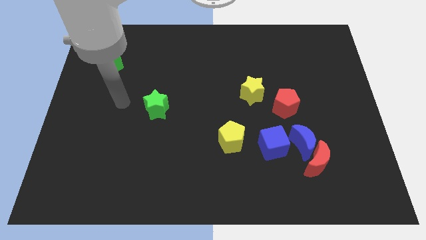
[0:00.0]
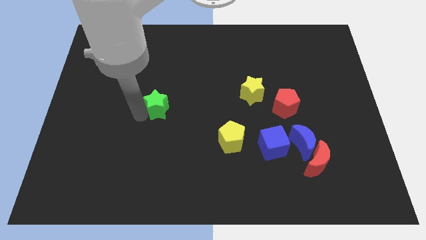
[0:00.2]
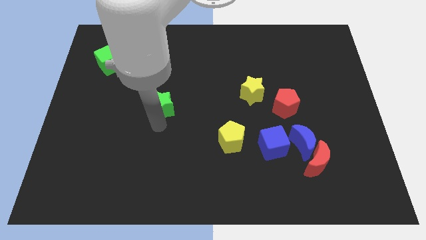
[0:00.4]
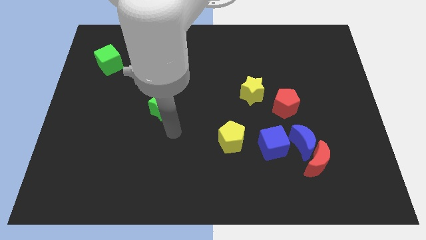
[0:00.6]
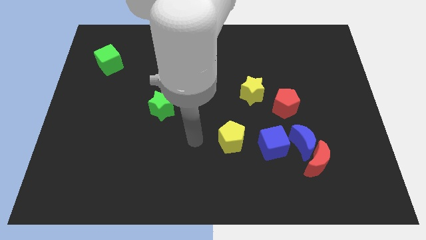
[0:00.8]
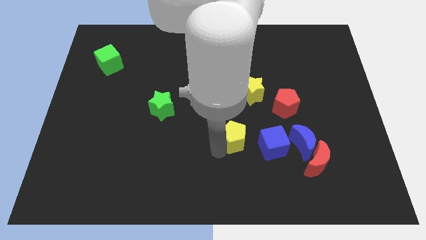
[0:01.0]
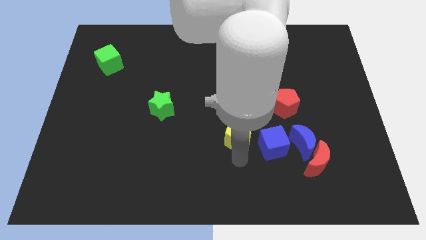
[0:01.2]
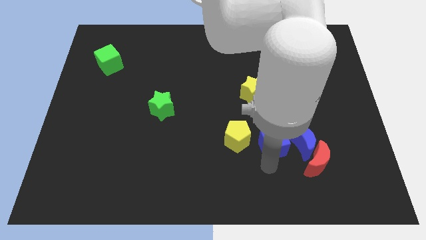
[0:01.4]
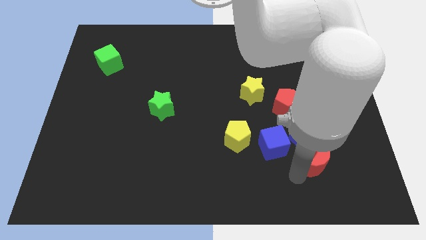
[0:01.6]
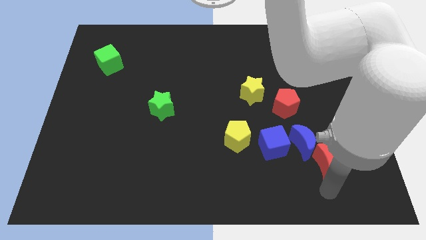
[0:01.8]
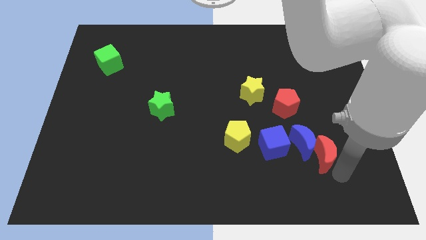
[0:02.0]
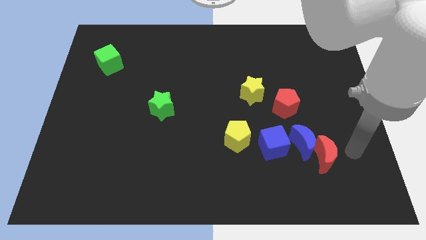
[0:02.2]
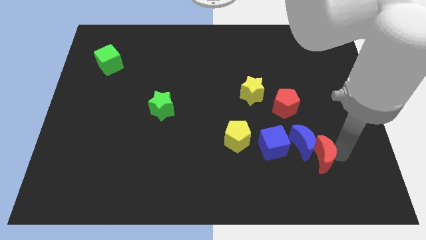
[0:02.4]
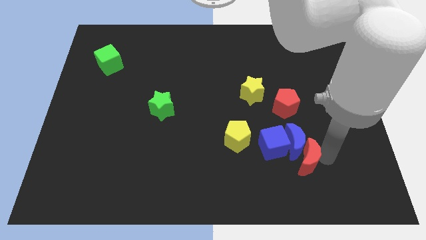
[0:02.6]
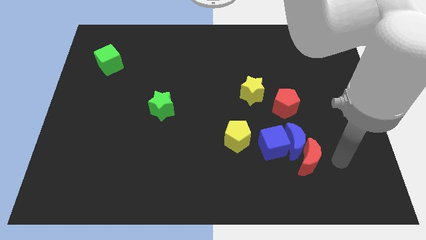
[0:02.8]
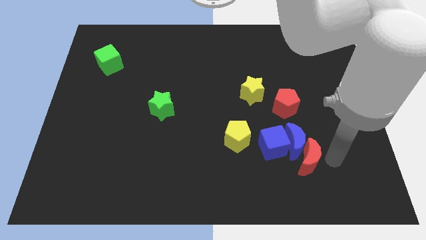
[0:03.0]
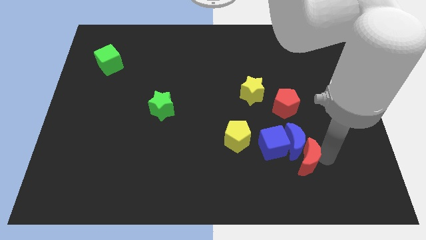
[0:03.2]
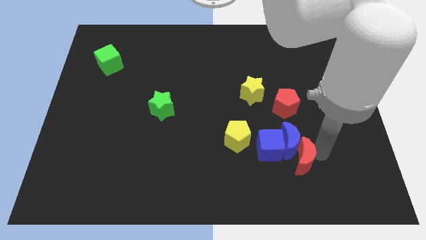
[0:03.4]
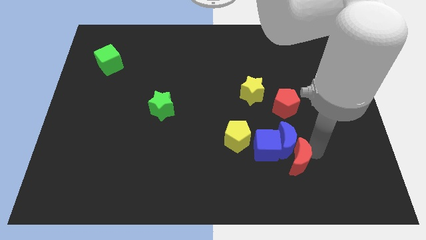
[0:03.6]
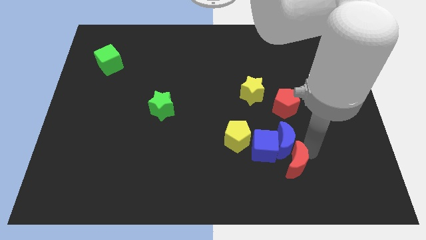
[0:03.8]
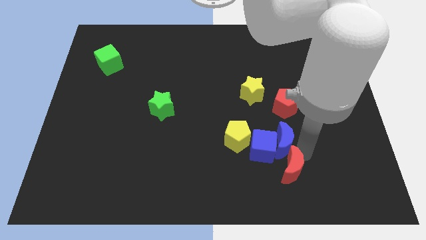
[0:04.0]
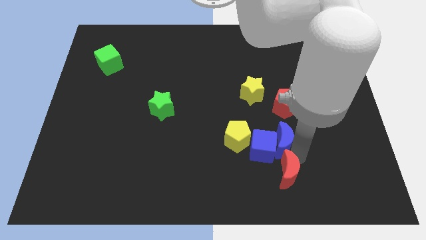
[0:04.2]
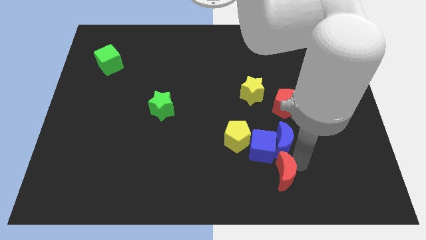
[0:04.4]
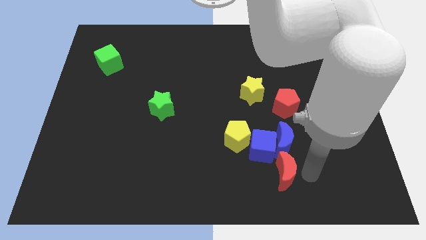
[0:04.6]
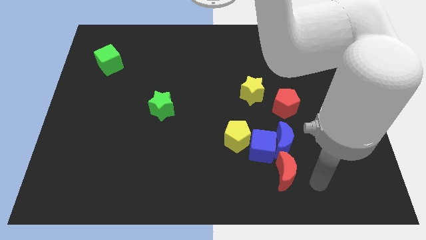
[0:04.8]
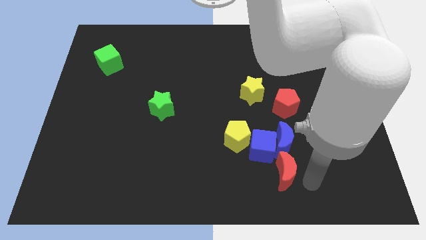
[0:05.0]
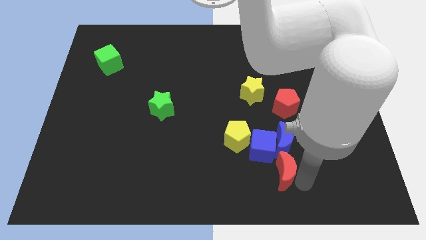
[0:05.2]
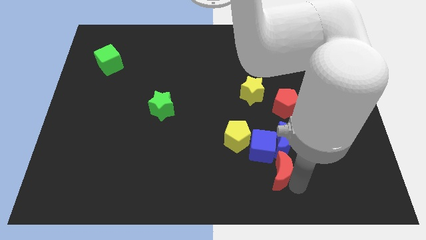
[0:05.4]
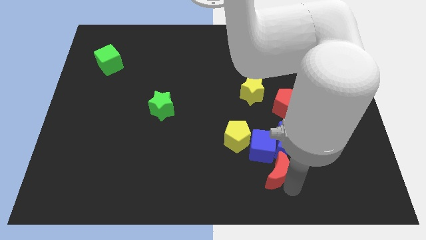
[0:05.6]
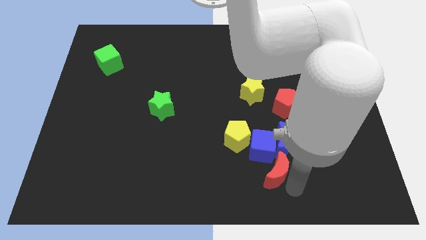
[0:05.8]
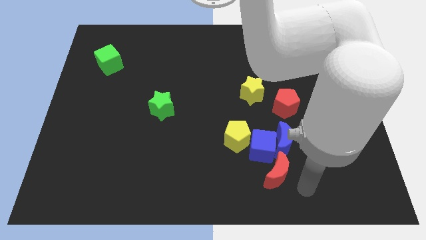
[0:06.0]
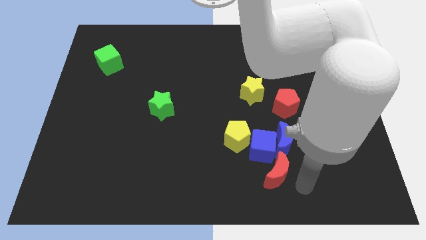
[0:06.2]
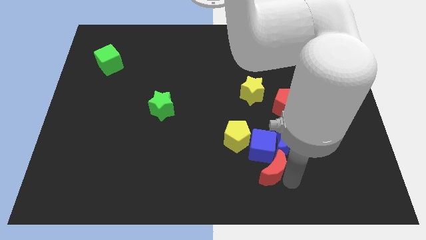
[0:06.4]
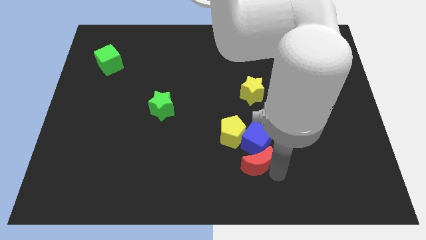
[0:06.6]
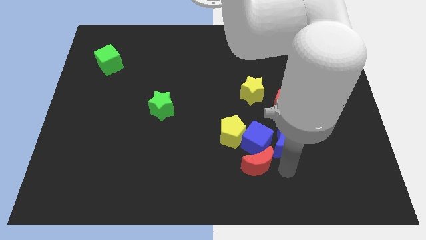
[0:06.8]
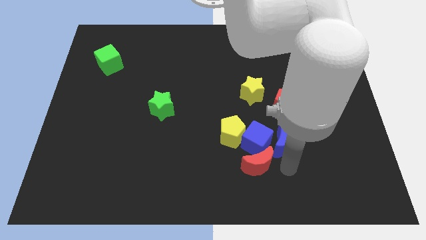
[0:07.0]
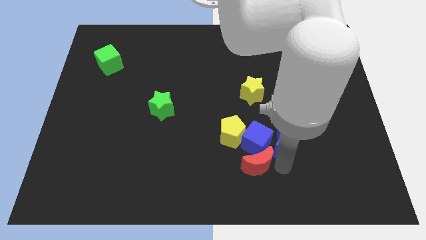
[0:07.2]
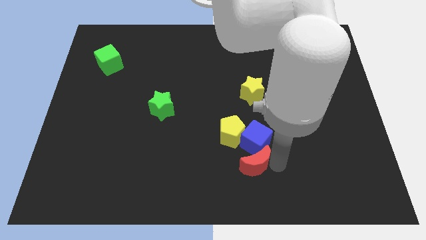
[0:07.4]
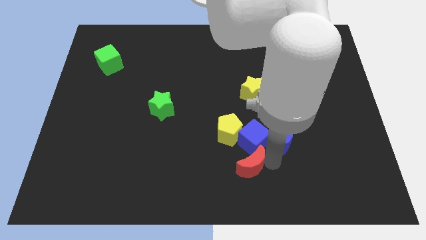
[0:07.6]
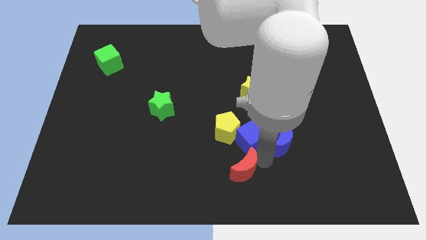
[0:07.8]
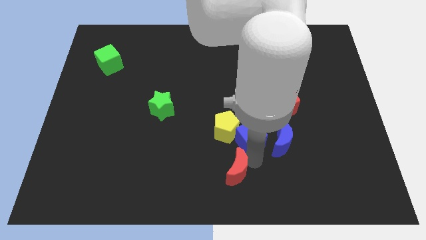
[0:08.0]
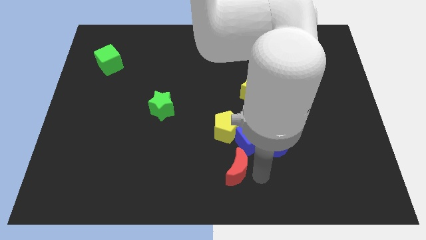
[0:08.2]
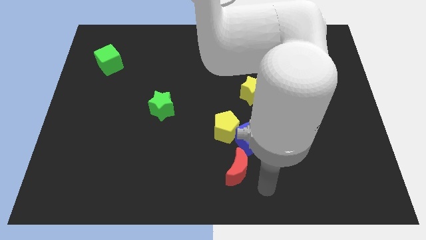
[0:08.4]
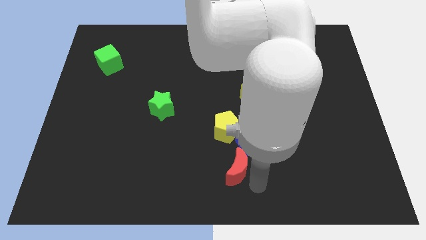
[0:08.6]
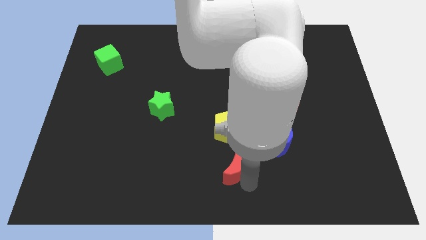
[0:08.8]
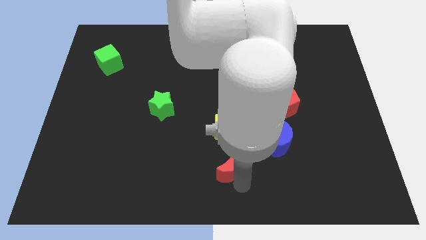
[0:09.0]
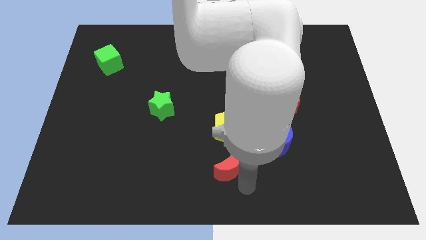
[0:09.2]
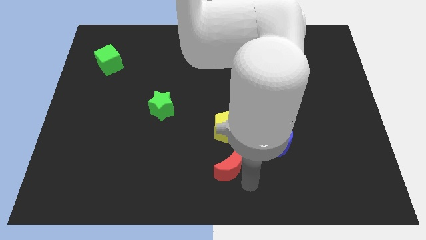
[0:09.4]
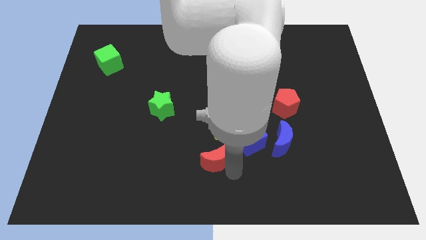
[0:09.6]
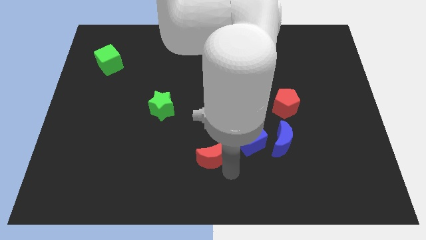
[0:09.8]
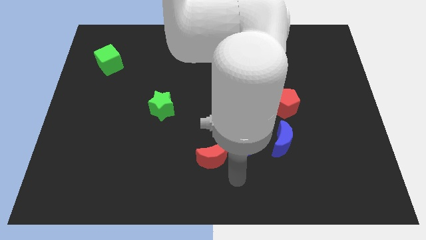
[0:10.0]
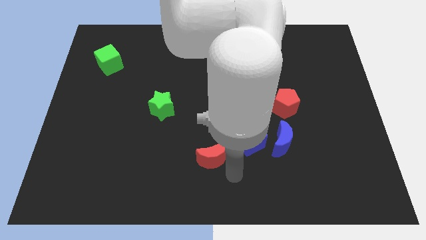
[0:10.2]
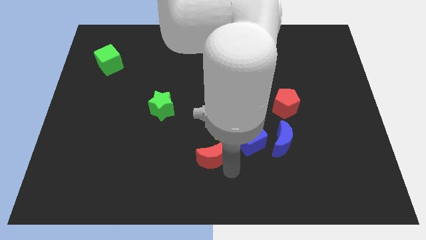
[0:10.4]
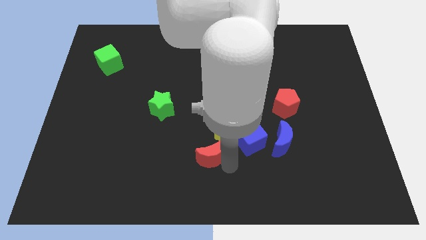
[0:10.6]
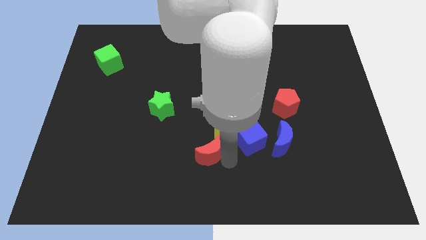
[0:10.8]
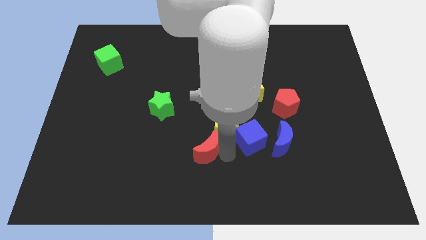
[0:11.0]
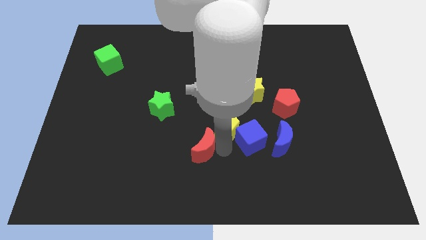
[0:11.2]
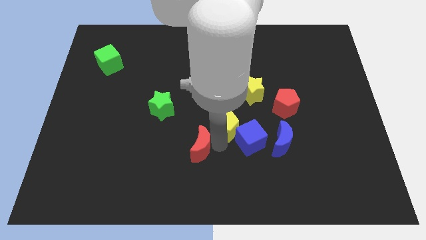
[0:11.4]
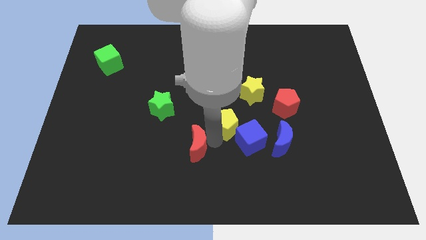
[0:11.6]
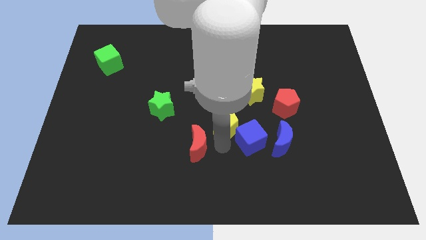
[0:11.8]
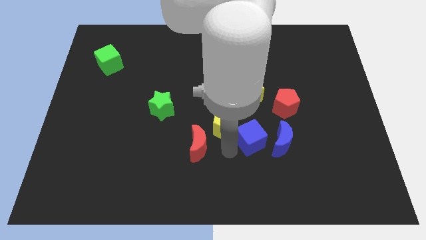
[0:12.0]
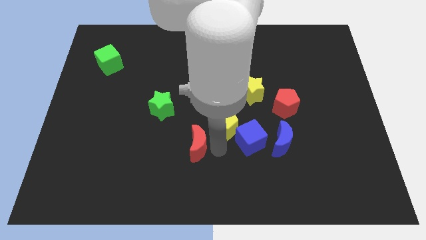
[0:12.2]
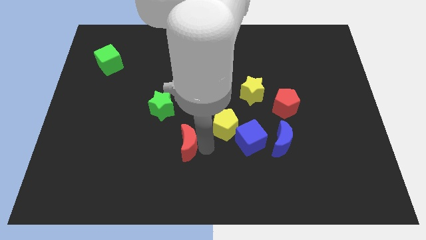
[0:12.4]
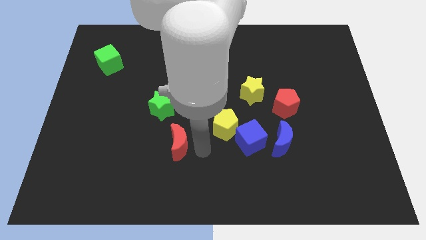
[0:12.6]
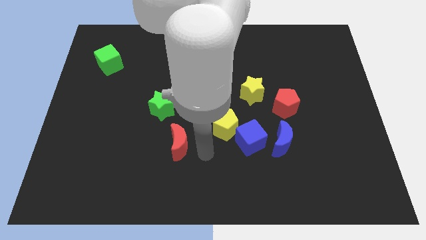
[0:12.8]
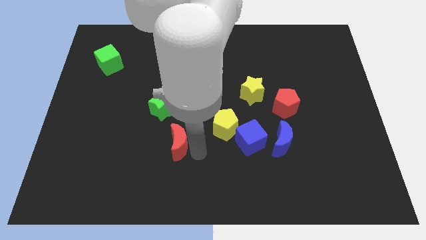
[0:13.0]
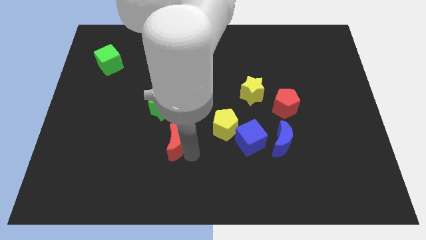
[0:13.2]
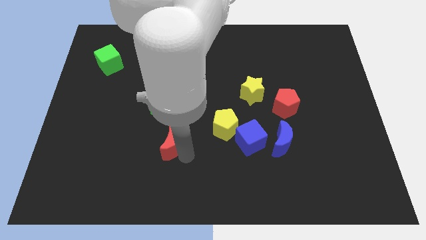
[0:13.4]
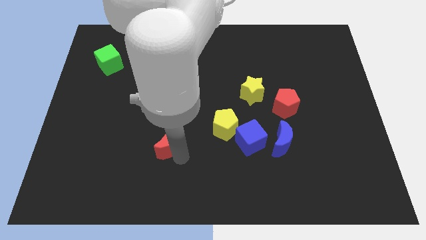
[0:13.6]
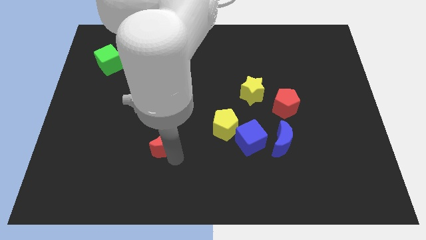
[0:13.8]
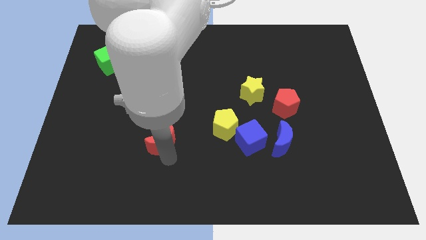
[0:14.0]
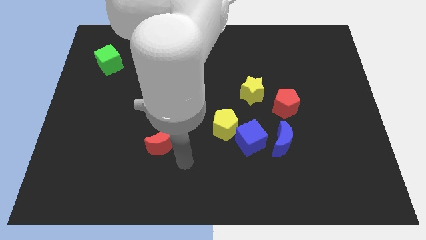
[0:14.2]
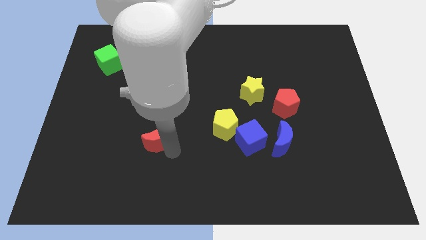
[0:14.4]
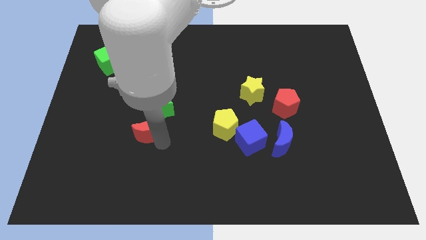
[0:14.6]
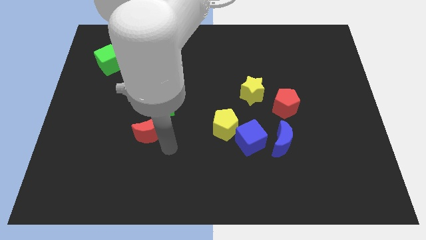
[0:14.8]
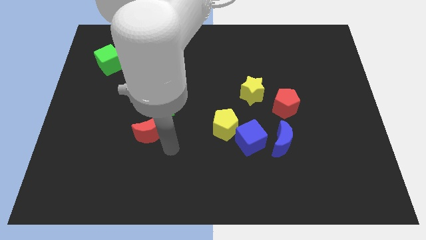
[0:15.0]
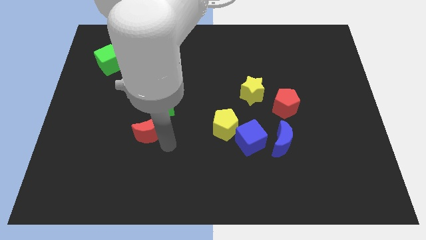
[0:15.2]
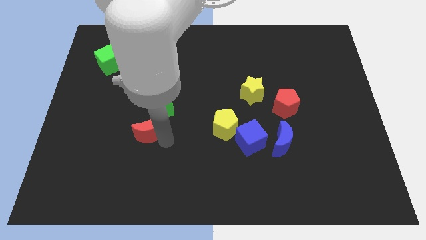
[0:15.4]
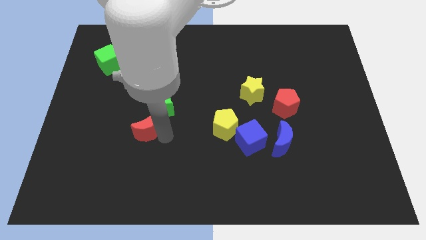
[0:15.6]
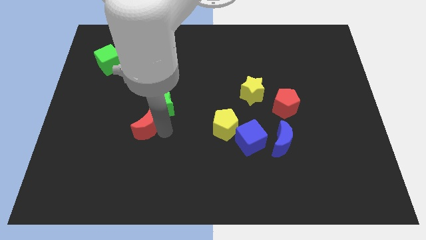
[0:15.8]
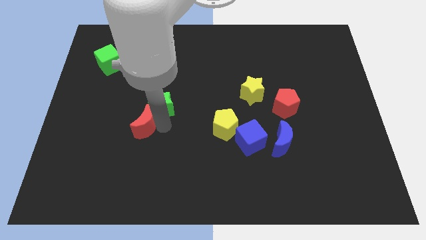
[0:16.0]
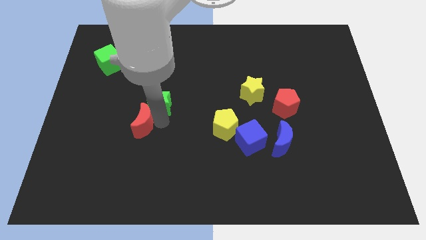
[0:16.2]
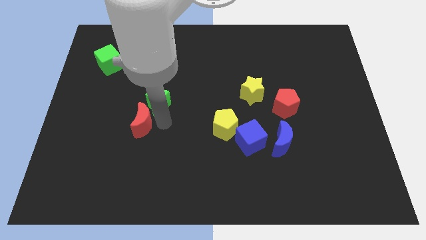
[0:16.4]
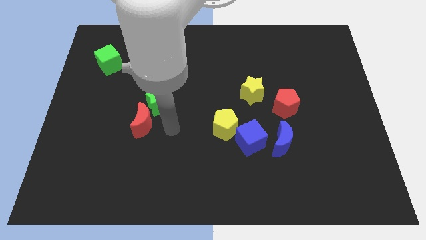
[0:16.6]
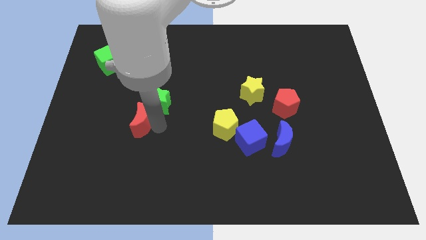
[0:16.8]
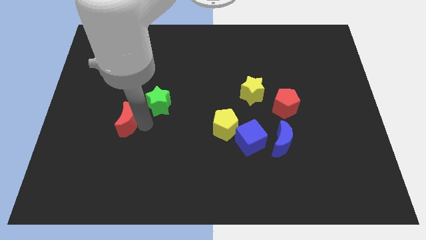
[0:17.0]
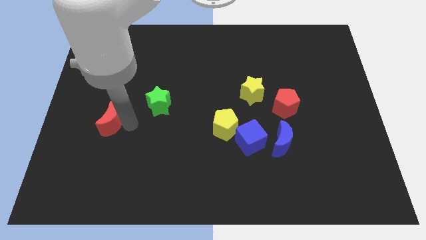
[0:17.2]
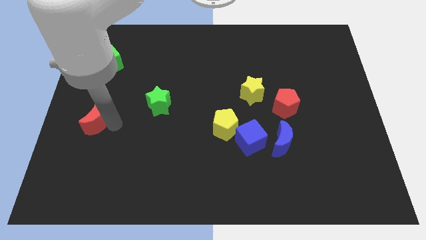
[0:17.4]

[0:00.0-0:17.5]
push the red moon to the left side of the board
